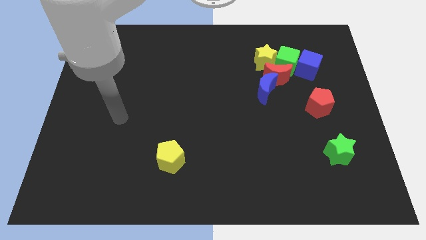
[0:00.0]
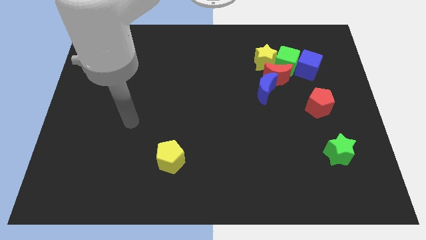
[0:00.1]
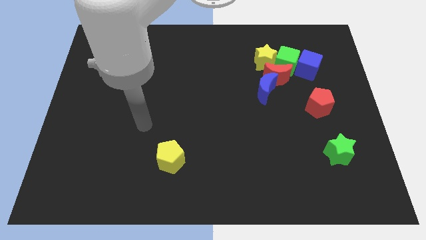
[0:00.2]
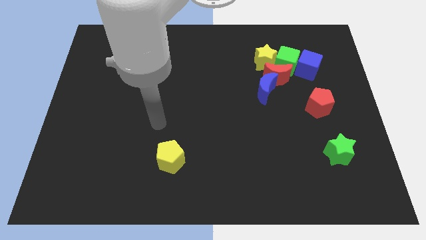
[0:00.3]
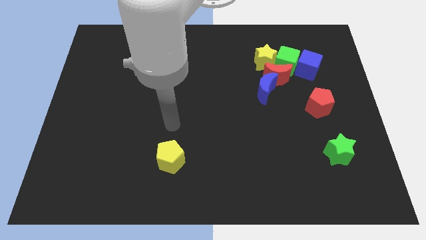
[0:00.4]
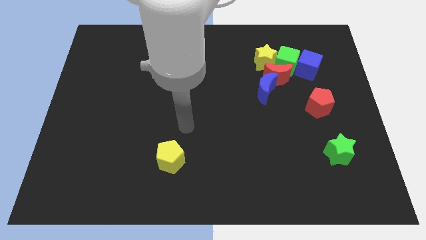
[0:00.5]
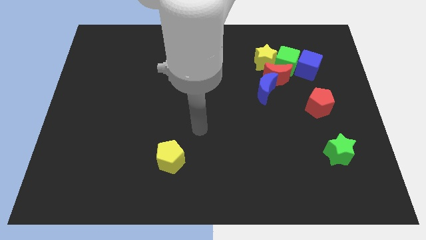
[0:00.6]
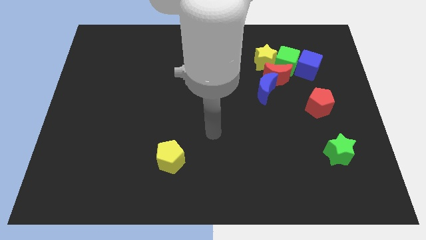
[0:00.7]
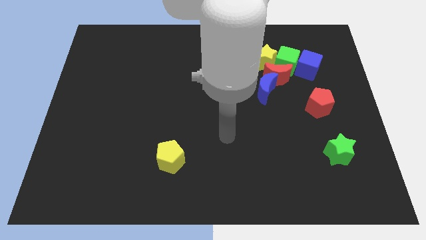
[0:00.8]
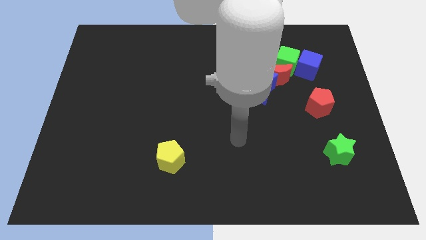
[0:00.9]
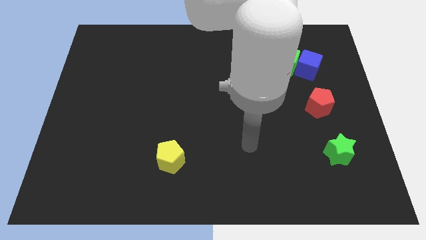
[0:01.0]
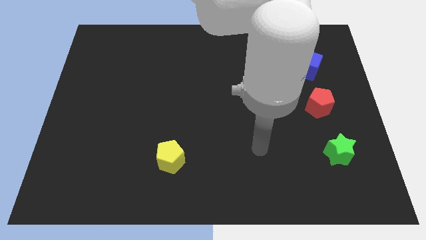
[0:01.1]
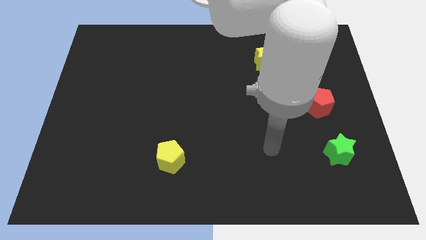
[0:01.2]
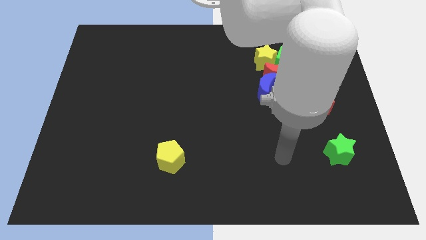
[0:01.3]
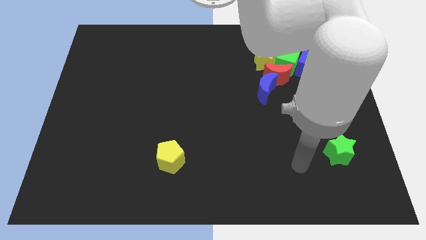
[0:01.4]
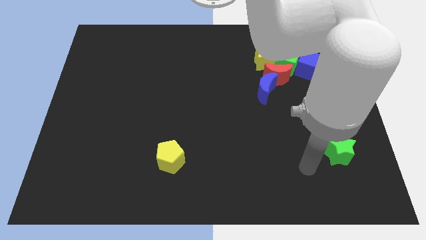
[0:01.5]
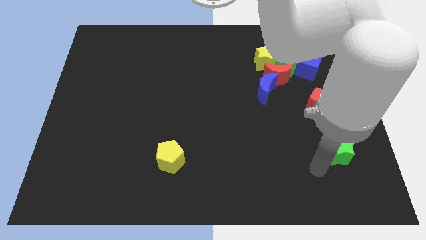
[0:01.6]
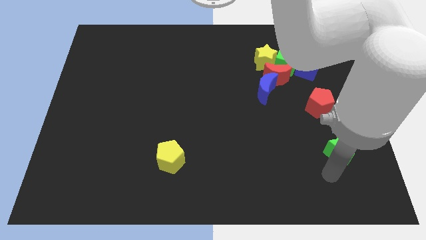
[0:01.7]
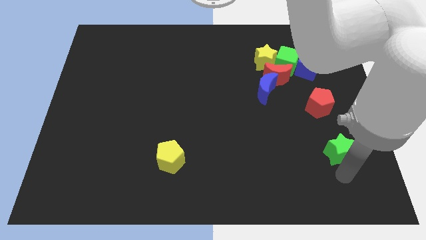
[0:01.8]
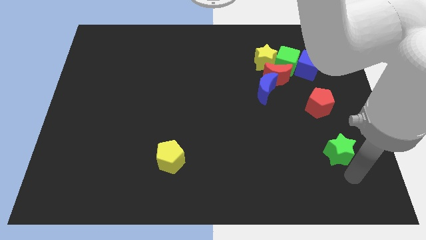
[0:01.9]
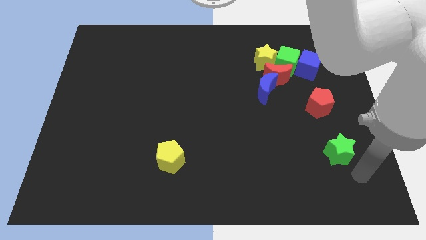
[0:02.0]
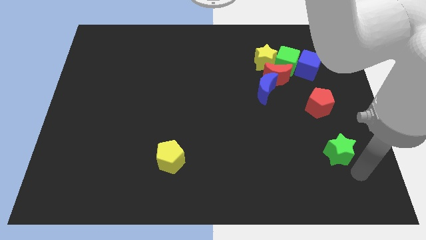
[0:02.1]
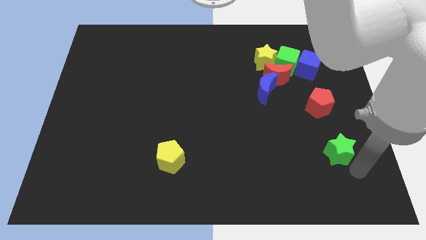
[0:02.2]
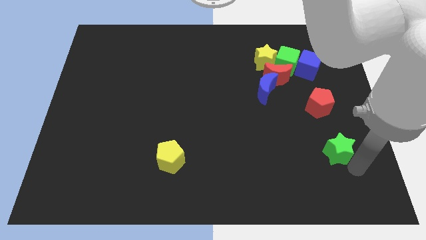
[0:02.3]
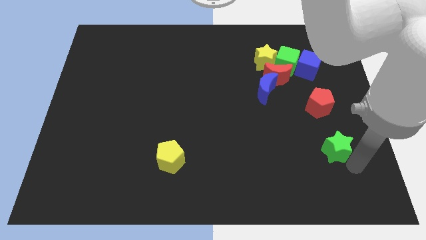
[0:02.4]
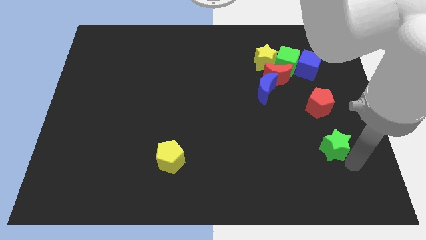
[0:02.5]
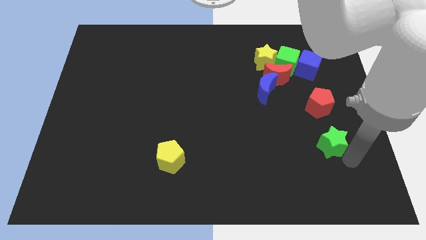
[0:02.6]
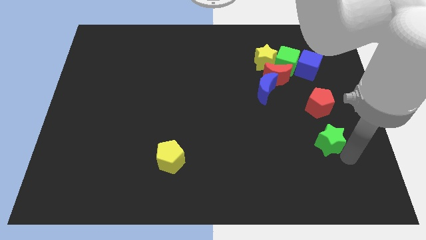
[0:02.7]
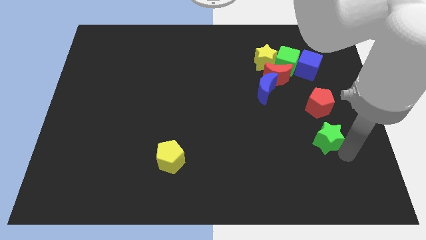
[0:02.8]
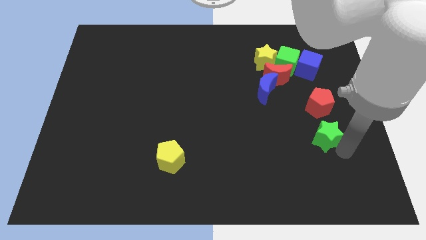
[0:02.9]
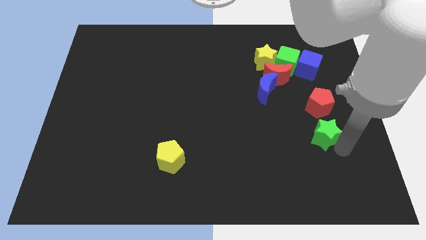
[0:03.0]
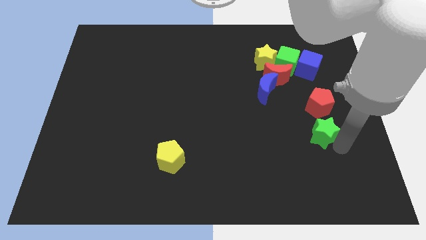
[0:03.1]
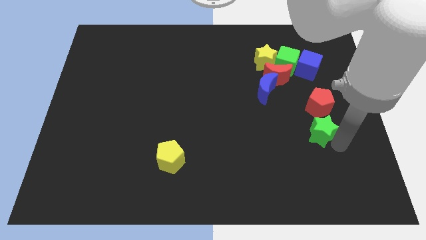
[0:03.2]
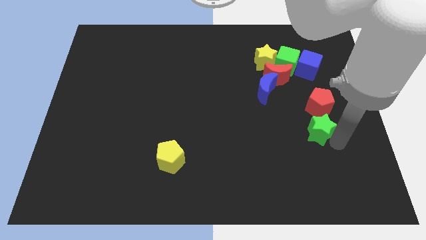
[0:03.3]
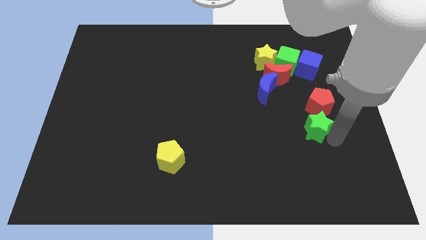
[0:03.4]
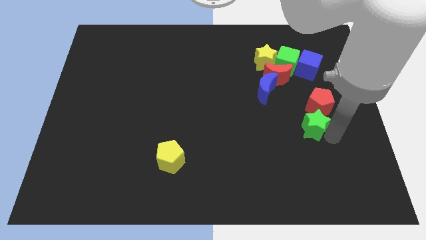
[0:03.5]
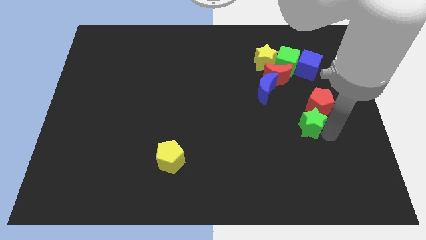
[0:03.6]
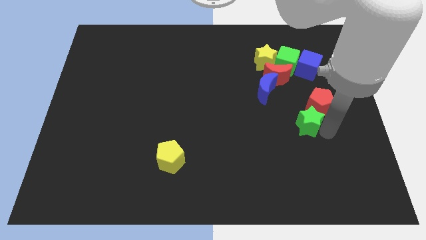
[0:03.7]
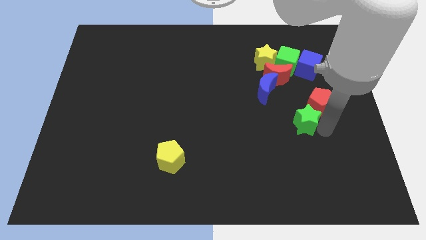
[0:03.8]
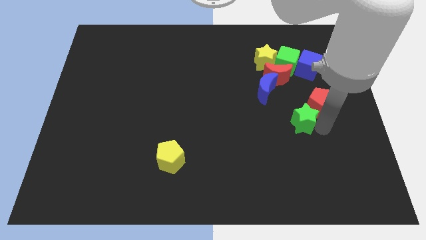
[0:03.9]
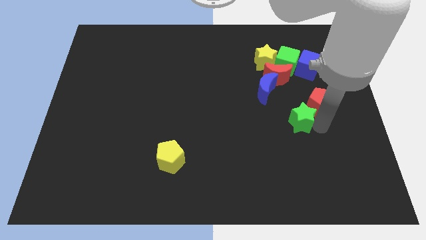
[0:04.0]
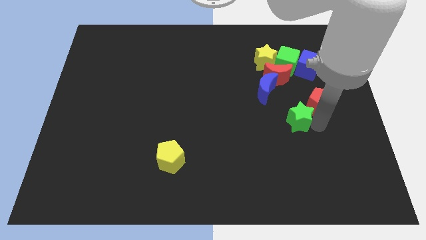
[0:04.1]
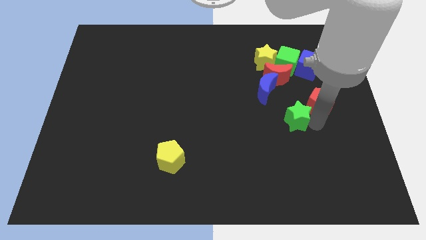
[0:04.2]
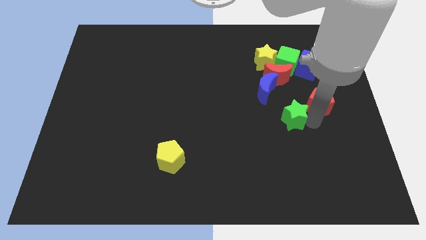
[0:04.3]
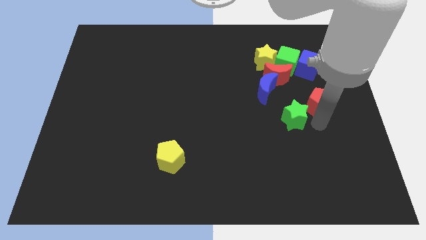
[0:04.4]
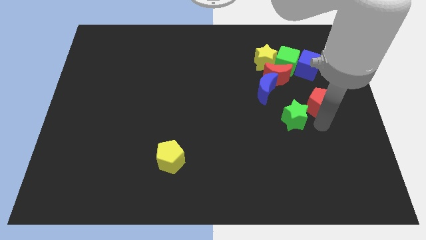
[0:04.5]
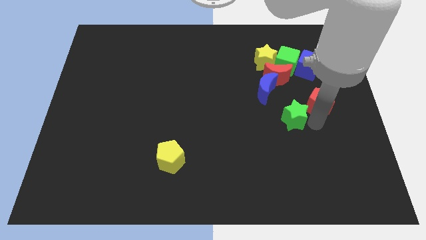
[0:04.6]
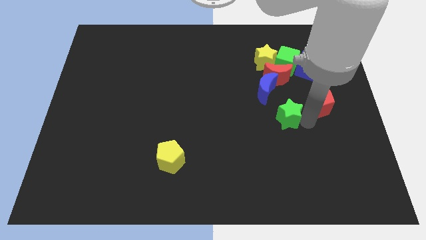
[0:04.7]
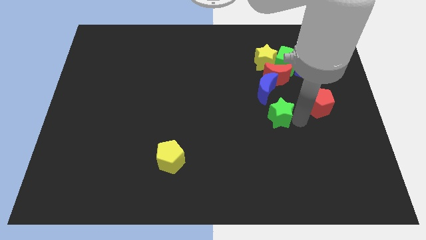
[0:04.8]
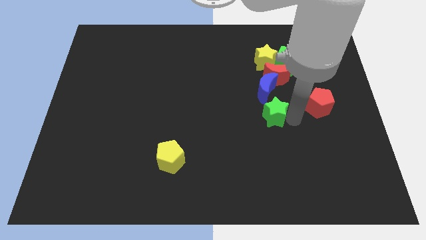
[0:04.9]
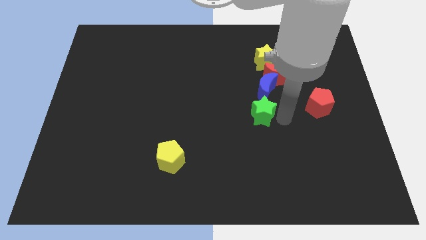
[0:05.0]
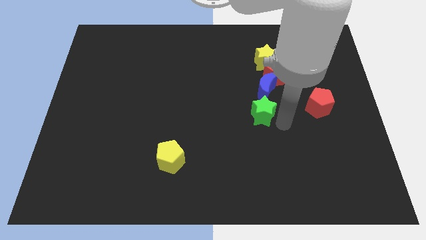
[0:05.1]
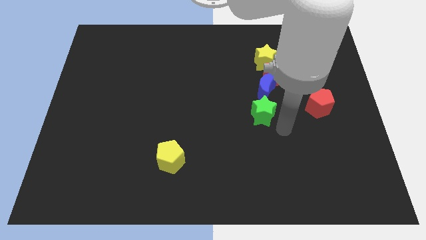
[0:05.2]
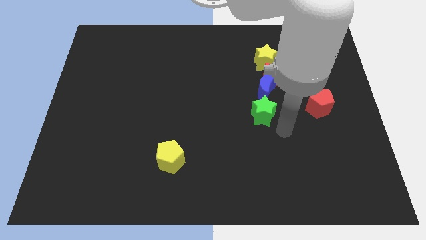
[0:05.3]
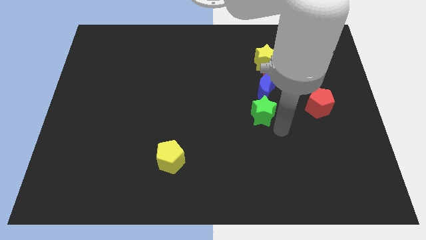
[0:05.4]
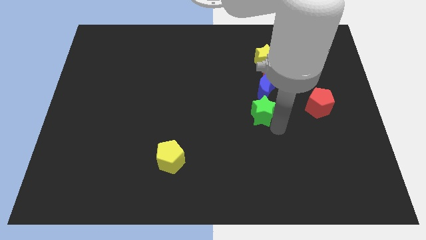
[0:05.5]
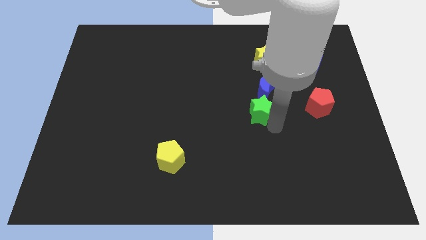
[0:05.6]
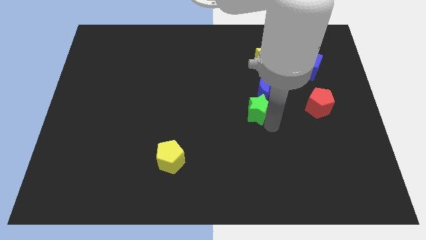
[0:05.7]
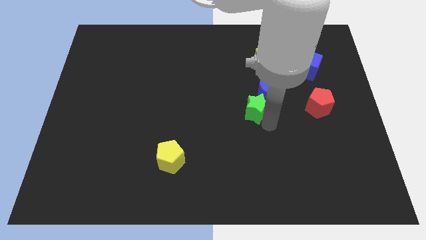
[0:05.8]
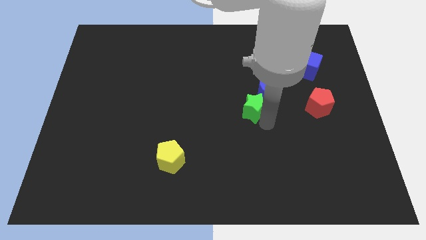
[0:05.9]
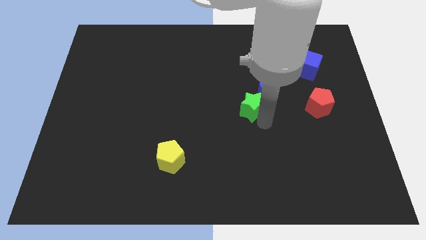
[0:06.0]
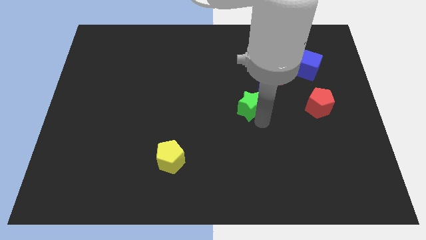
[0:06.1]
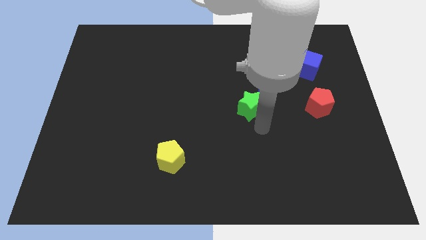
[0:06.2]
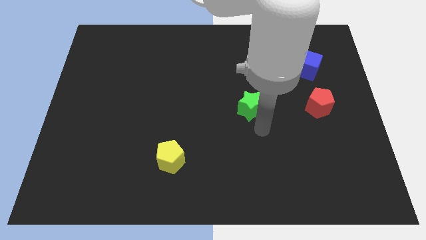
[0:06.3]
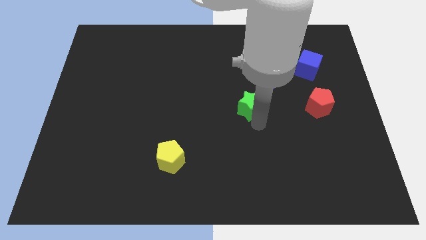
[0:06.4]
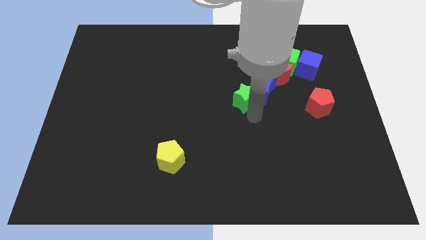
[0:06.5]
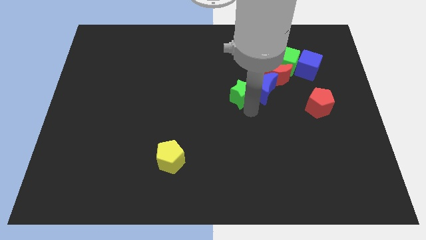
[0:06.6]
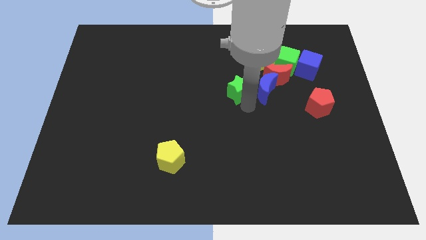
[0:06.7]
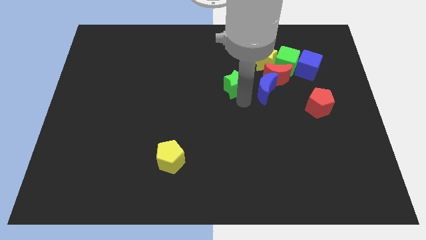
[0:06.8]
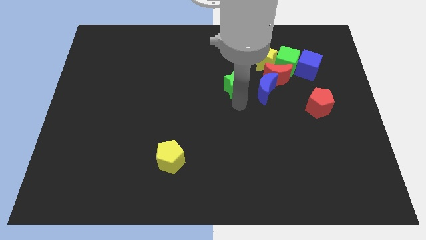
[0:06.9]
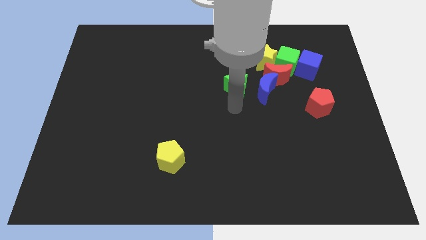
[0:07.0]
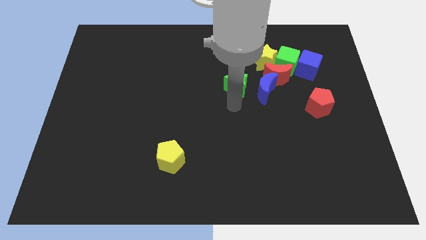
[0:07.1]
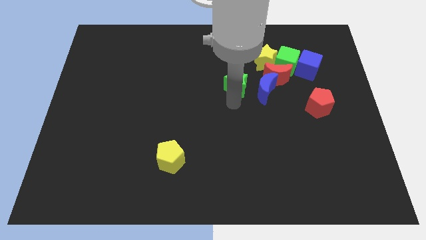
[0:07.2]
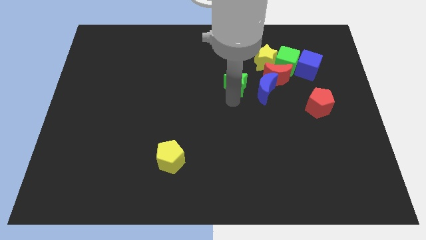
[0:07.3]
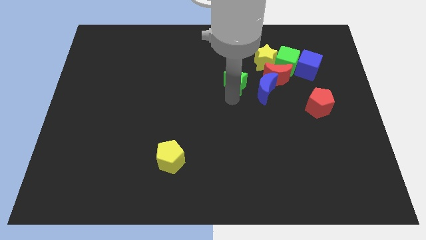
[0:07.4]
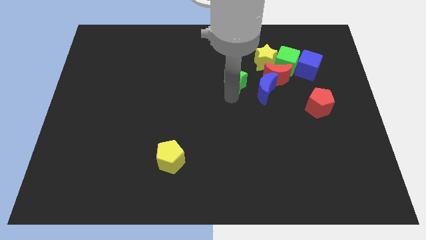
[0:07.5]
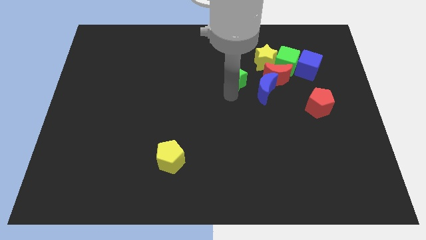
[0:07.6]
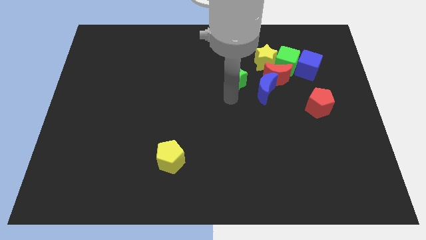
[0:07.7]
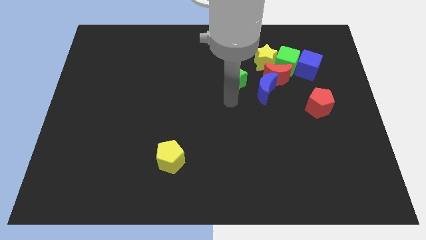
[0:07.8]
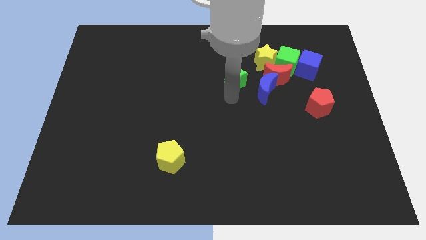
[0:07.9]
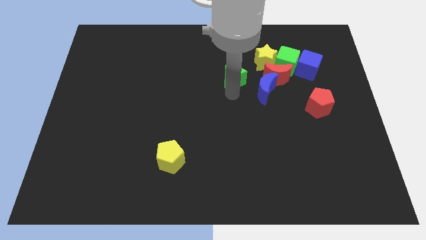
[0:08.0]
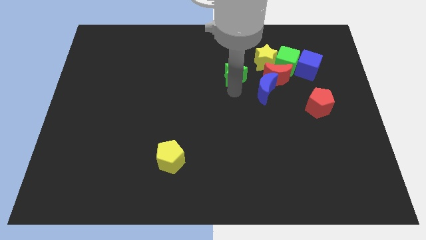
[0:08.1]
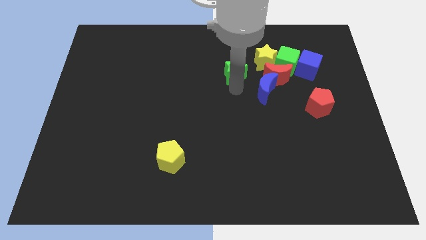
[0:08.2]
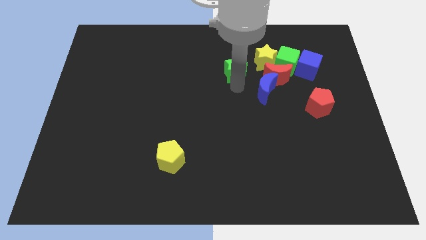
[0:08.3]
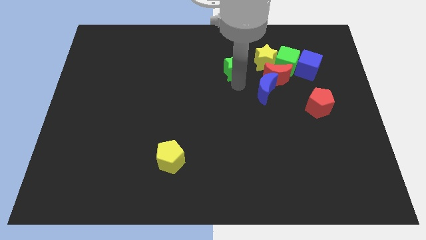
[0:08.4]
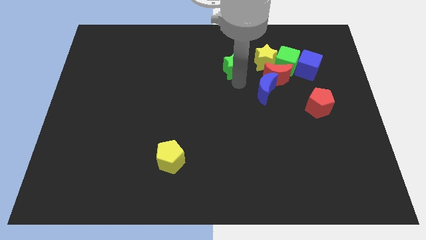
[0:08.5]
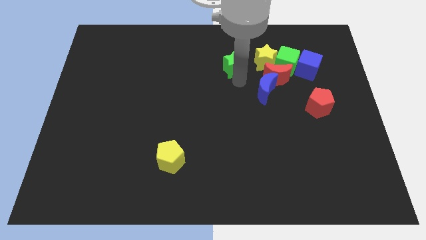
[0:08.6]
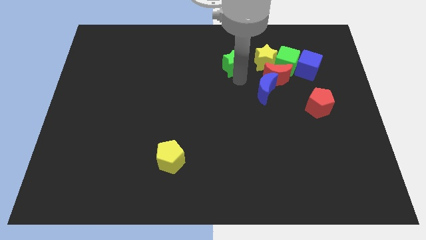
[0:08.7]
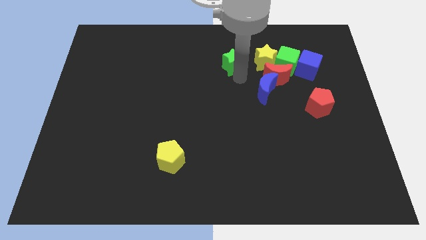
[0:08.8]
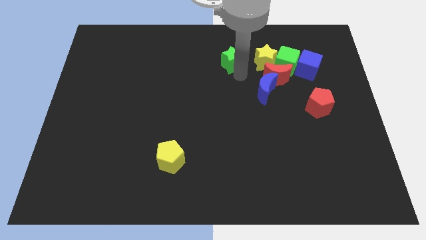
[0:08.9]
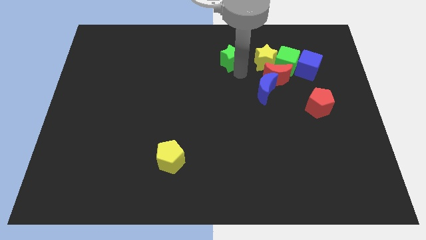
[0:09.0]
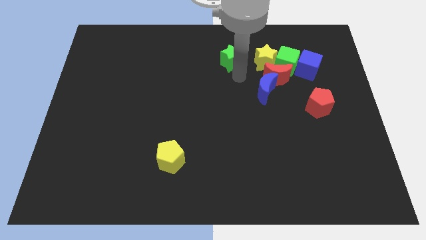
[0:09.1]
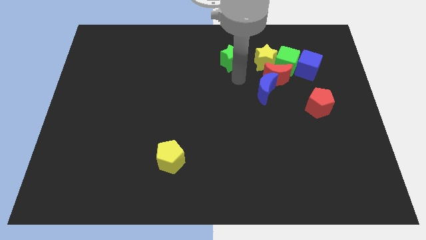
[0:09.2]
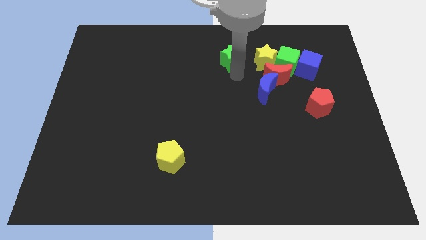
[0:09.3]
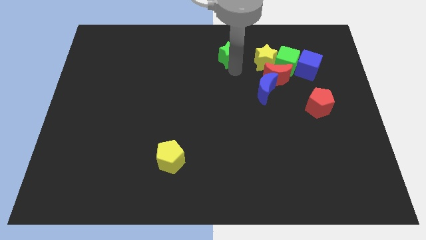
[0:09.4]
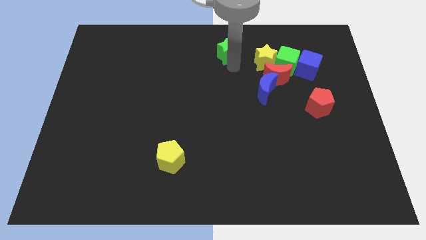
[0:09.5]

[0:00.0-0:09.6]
put the green star to the towards your base
